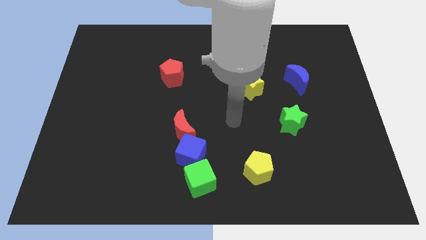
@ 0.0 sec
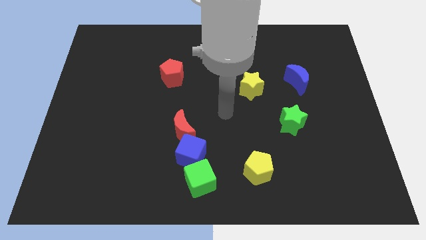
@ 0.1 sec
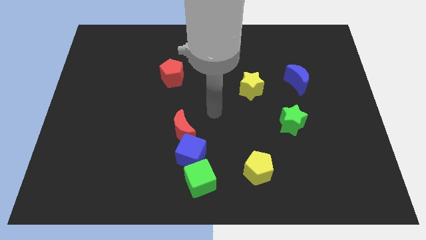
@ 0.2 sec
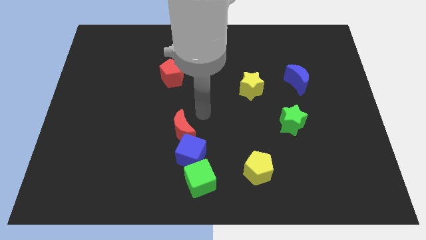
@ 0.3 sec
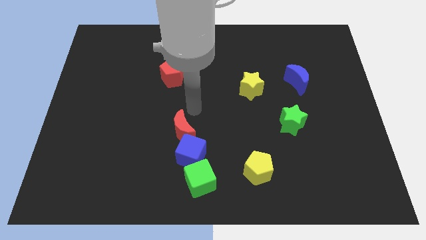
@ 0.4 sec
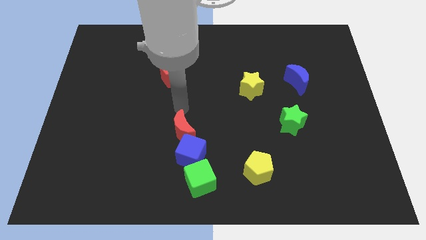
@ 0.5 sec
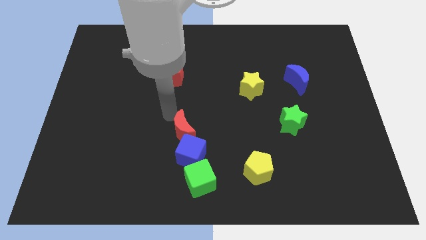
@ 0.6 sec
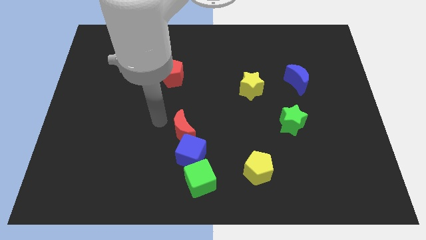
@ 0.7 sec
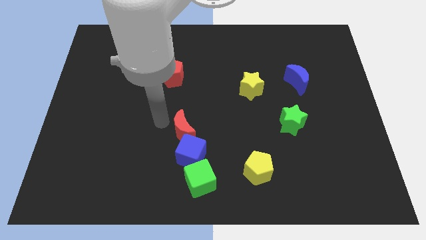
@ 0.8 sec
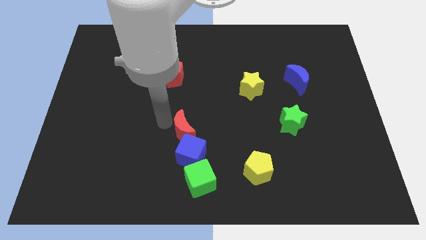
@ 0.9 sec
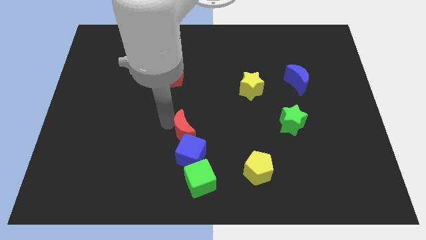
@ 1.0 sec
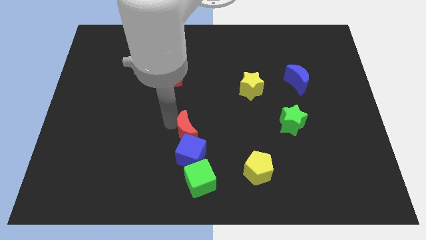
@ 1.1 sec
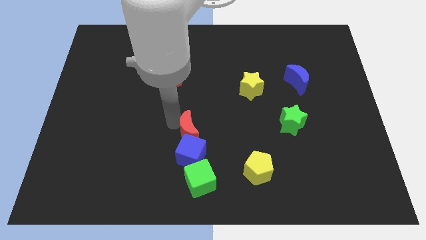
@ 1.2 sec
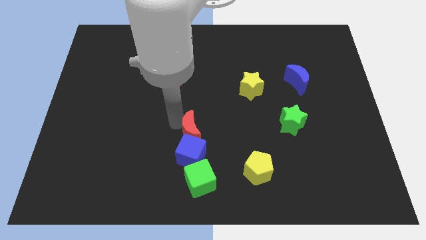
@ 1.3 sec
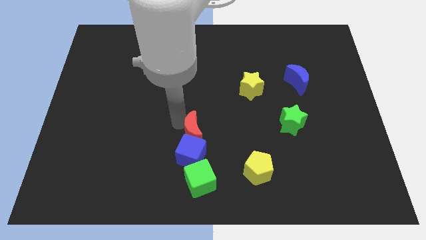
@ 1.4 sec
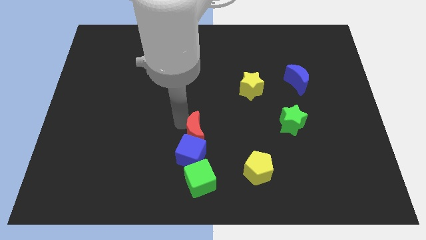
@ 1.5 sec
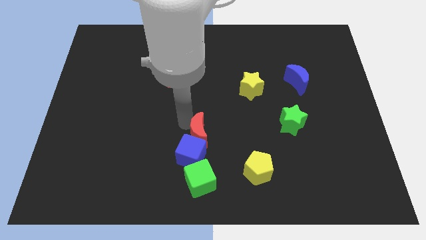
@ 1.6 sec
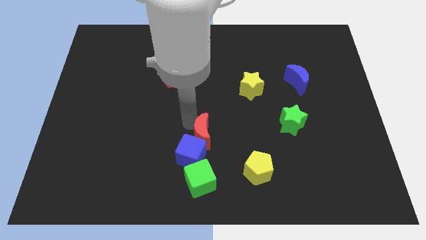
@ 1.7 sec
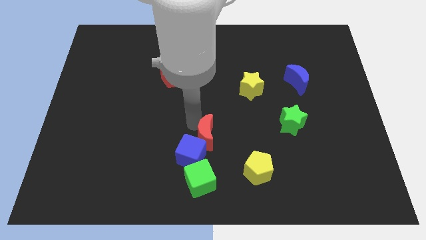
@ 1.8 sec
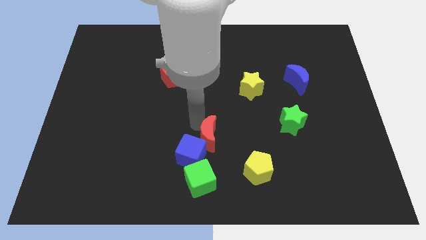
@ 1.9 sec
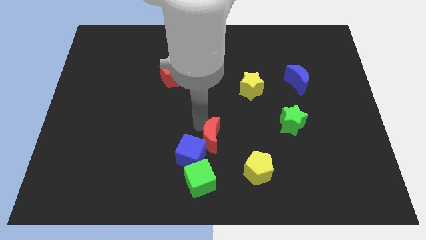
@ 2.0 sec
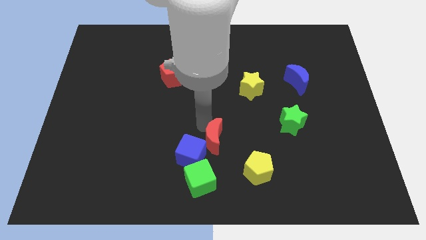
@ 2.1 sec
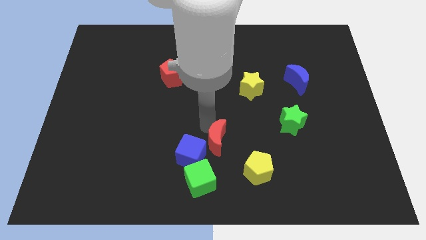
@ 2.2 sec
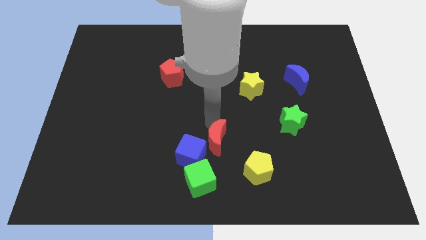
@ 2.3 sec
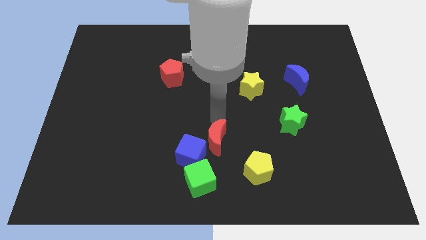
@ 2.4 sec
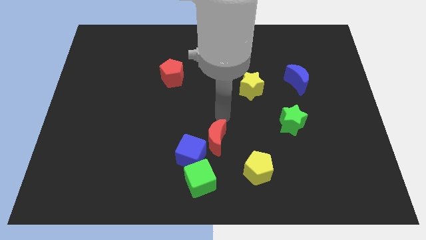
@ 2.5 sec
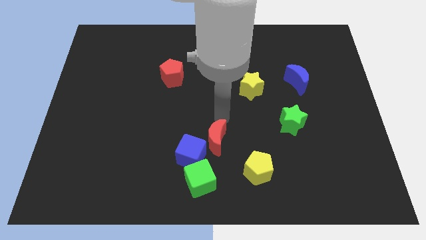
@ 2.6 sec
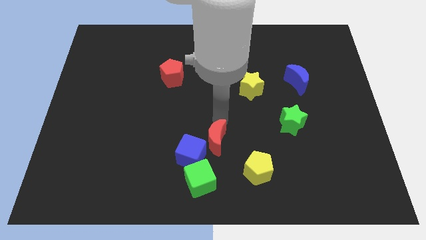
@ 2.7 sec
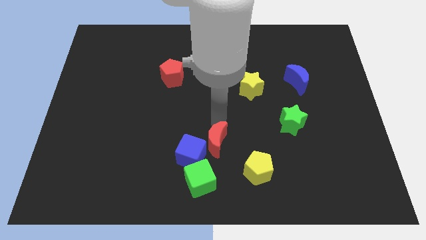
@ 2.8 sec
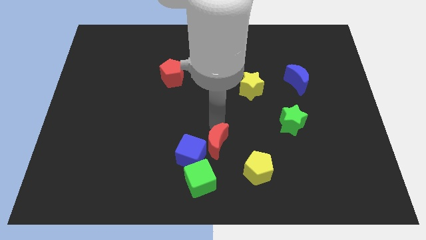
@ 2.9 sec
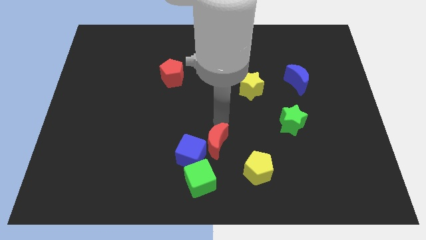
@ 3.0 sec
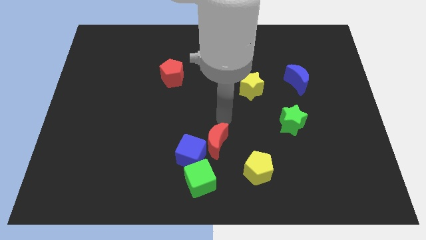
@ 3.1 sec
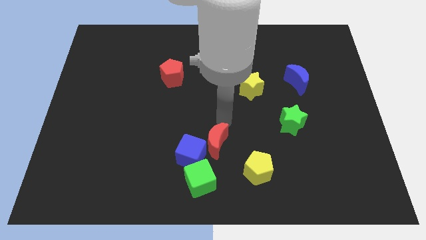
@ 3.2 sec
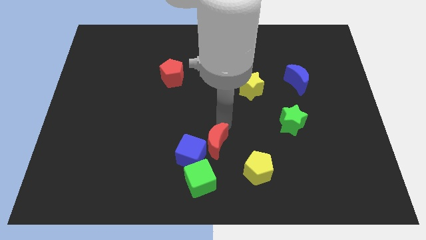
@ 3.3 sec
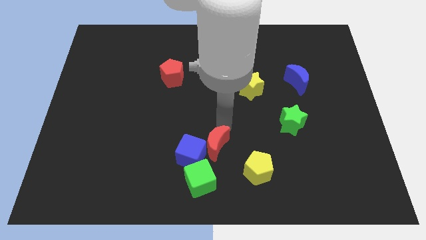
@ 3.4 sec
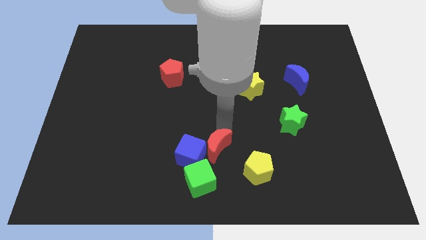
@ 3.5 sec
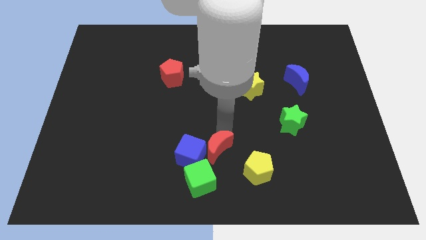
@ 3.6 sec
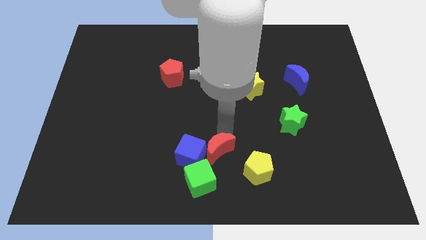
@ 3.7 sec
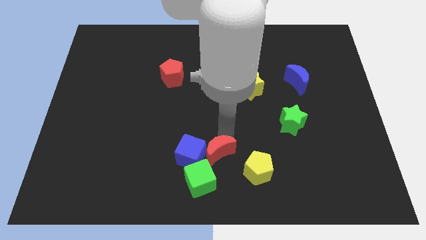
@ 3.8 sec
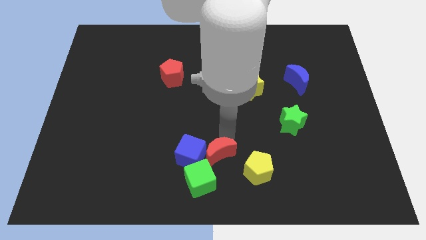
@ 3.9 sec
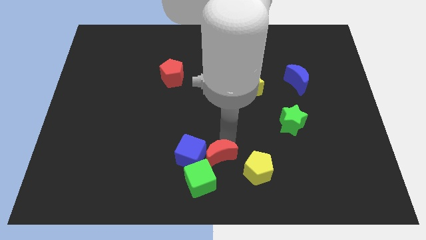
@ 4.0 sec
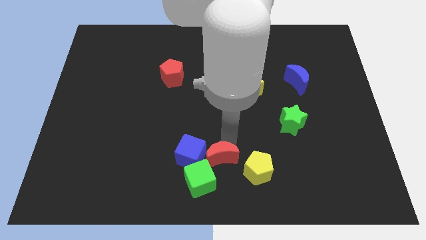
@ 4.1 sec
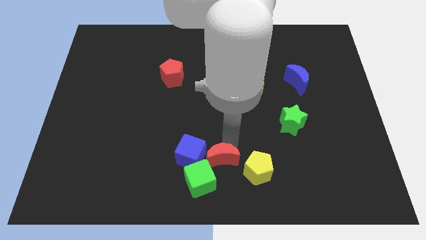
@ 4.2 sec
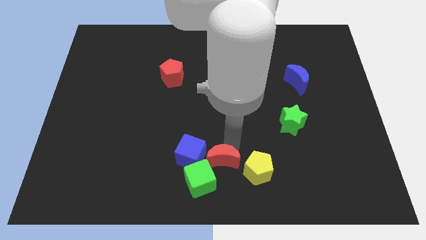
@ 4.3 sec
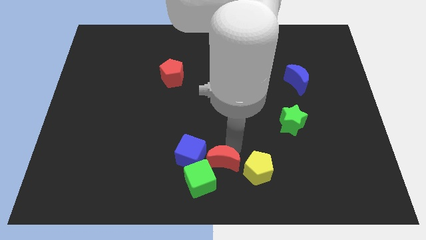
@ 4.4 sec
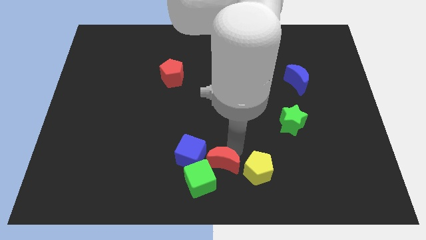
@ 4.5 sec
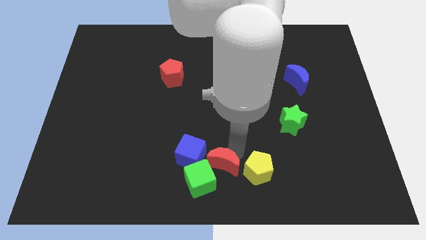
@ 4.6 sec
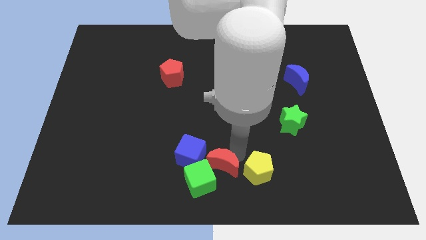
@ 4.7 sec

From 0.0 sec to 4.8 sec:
move the red moon towards the green cube

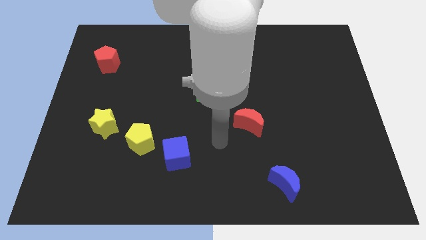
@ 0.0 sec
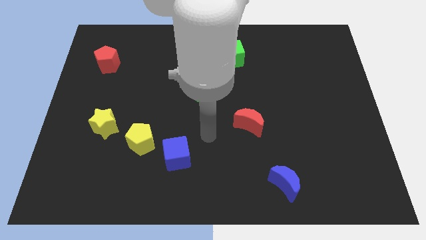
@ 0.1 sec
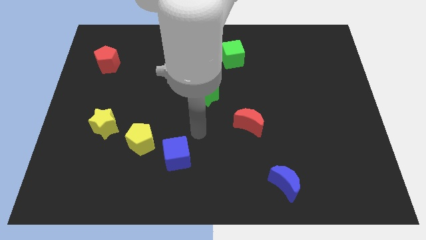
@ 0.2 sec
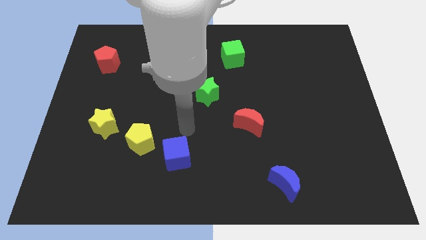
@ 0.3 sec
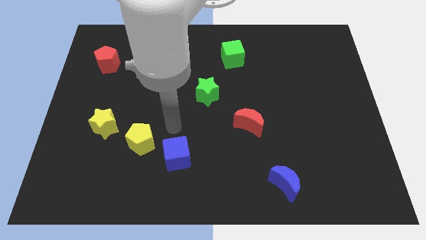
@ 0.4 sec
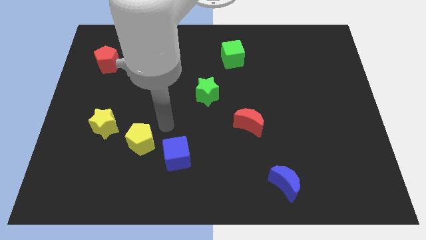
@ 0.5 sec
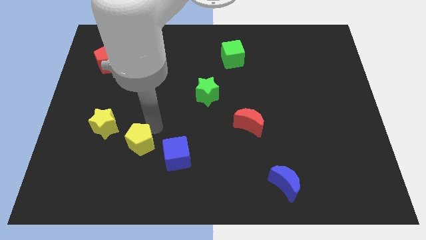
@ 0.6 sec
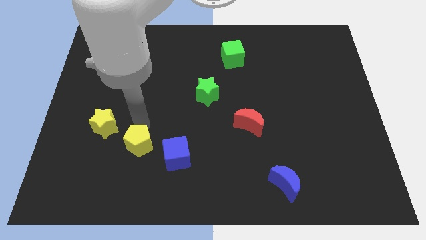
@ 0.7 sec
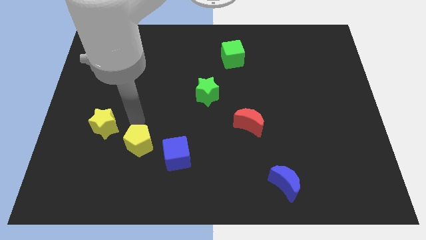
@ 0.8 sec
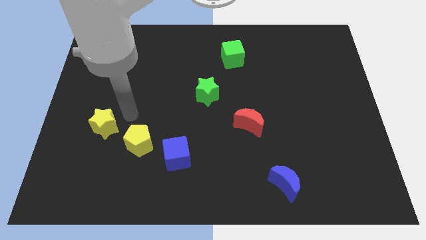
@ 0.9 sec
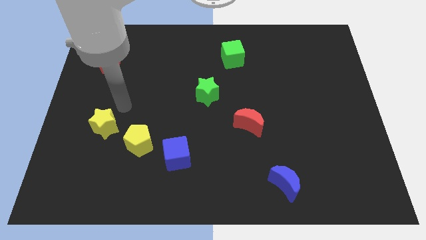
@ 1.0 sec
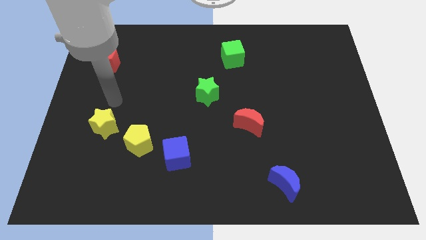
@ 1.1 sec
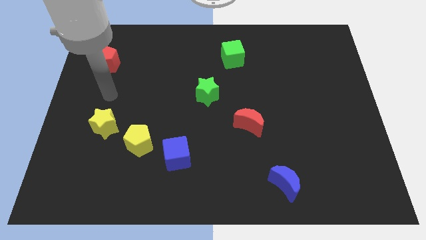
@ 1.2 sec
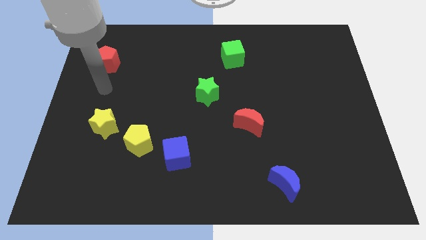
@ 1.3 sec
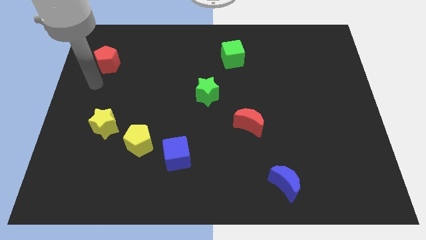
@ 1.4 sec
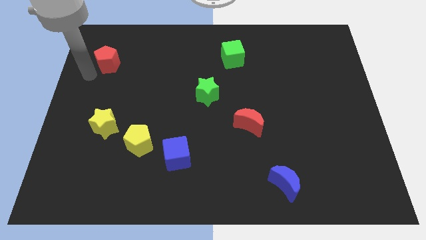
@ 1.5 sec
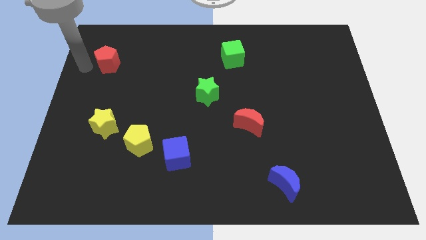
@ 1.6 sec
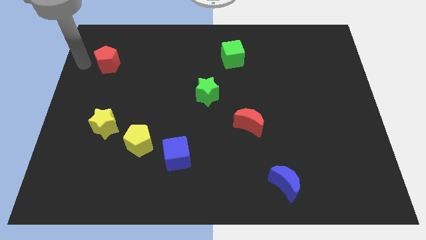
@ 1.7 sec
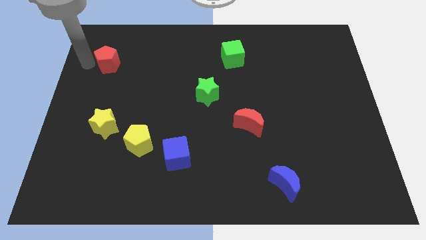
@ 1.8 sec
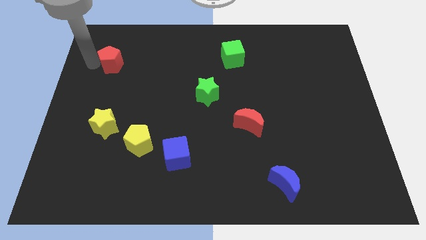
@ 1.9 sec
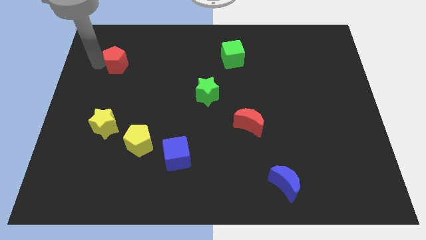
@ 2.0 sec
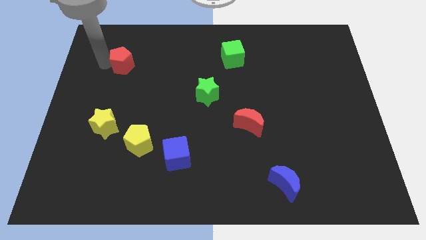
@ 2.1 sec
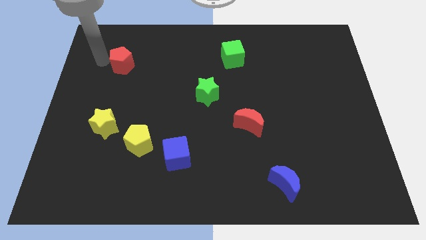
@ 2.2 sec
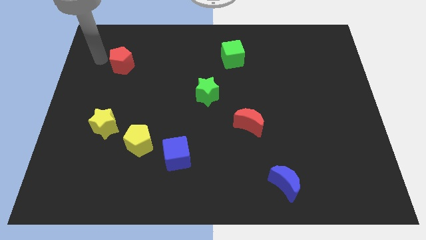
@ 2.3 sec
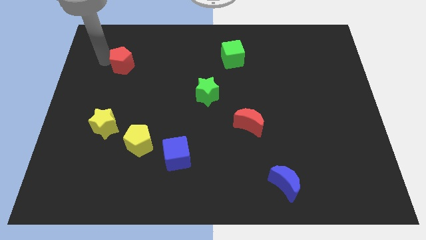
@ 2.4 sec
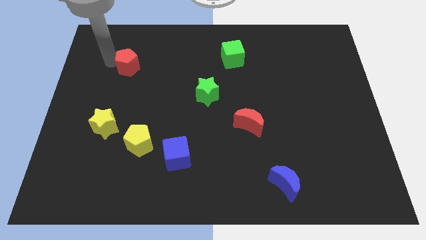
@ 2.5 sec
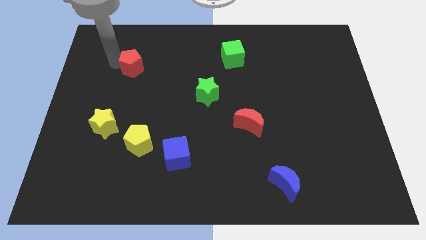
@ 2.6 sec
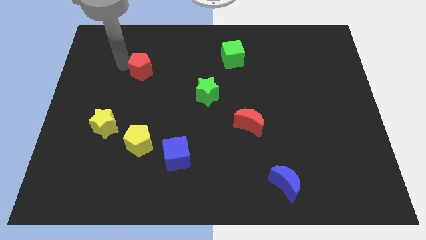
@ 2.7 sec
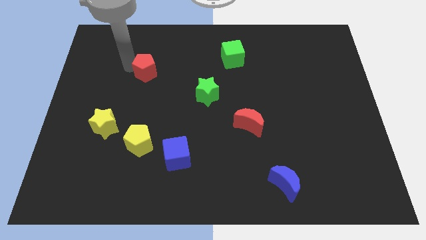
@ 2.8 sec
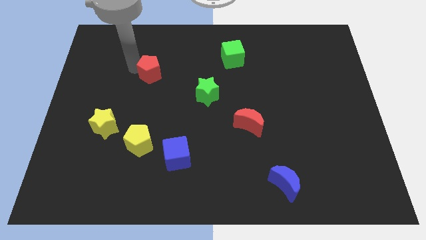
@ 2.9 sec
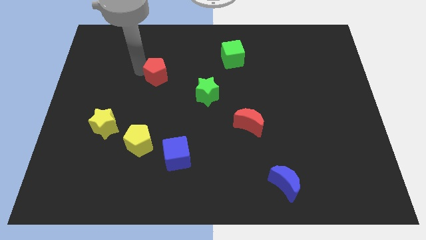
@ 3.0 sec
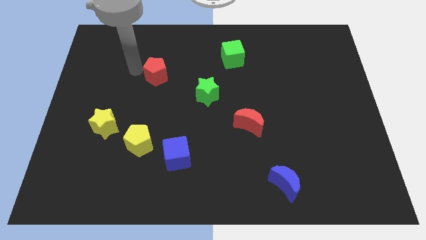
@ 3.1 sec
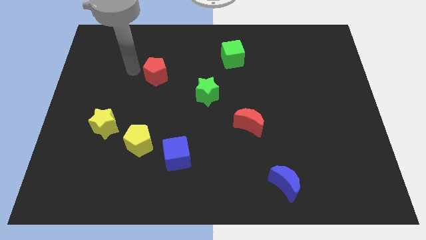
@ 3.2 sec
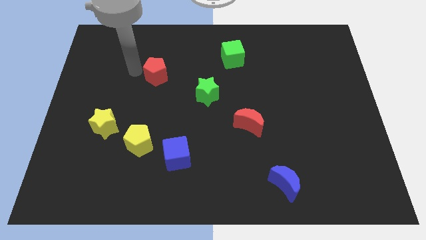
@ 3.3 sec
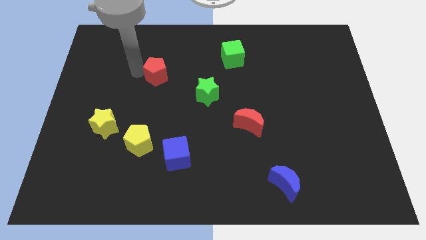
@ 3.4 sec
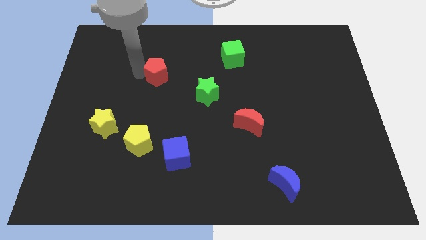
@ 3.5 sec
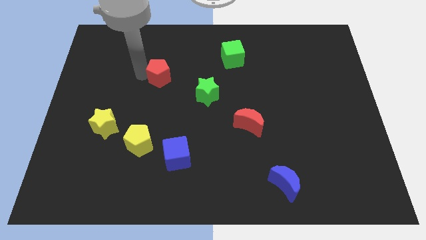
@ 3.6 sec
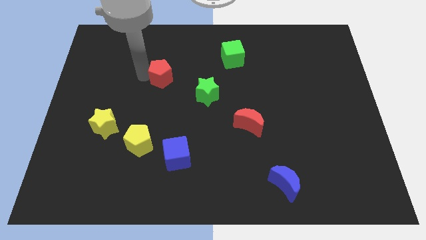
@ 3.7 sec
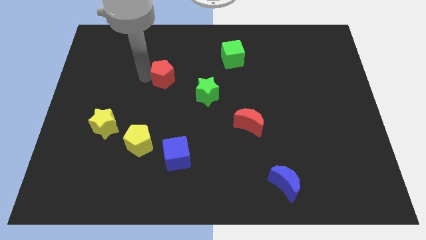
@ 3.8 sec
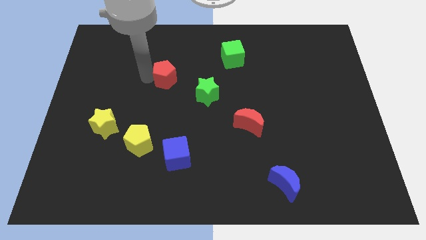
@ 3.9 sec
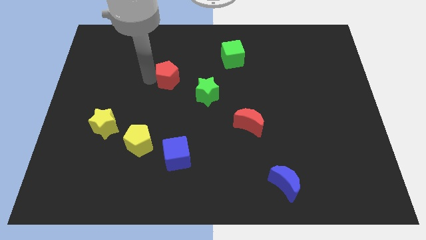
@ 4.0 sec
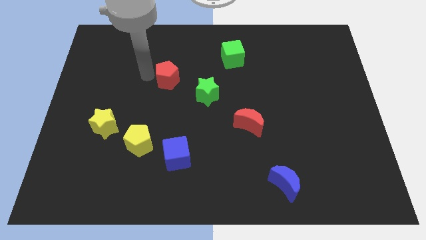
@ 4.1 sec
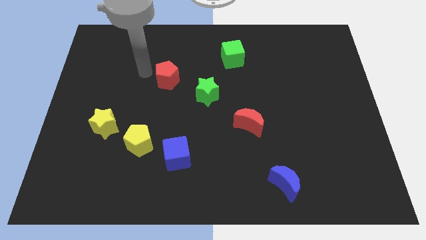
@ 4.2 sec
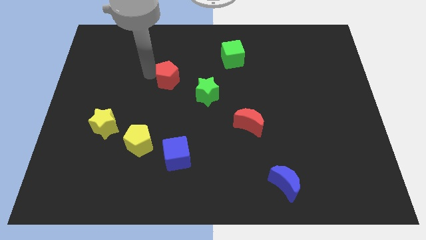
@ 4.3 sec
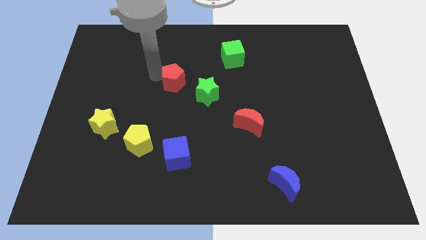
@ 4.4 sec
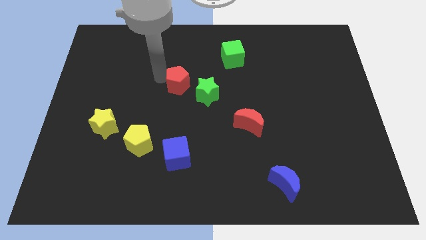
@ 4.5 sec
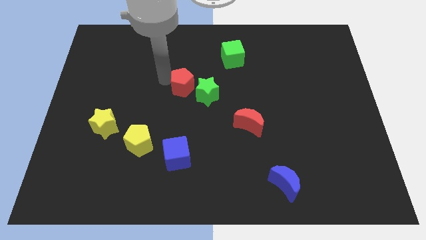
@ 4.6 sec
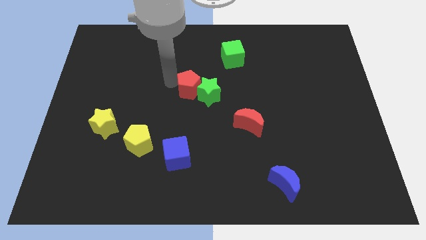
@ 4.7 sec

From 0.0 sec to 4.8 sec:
push the red pentagon to the green star
